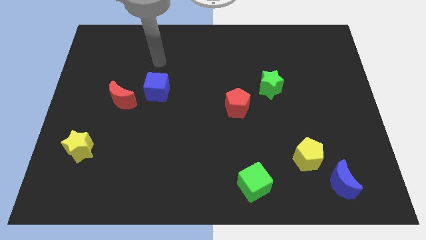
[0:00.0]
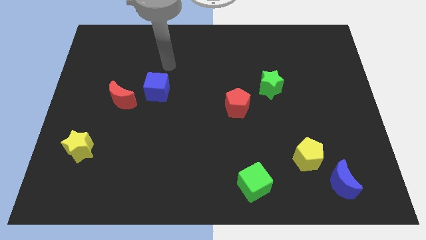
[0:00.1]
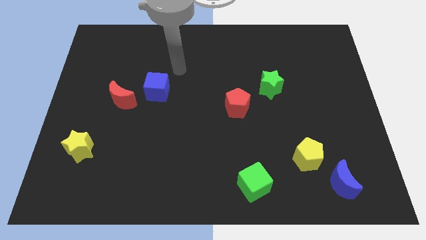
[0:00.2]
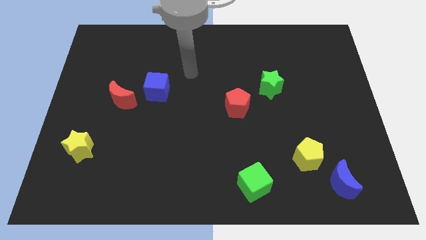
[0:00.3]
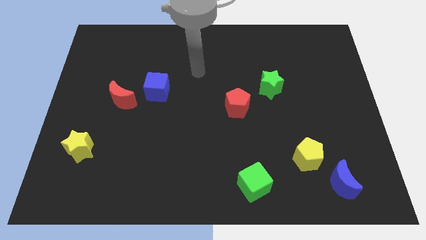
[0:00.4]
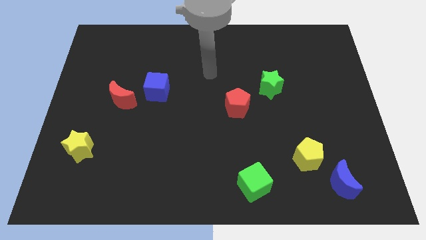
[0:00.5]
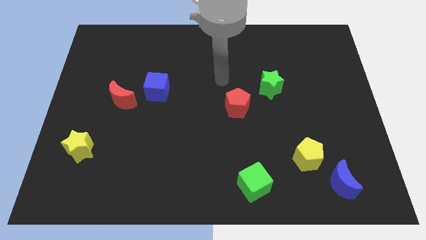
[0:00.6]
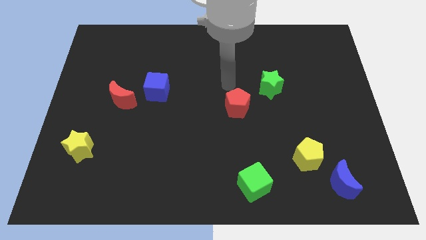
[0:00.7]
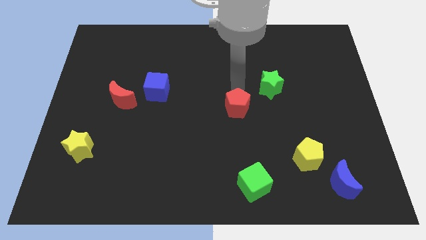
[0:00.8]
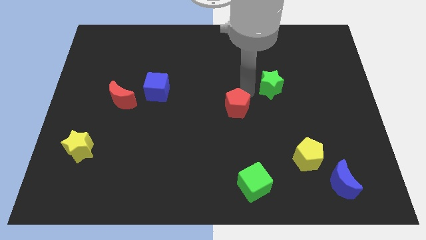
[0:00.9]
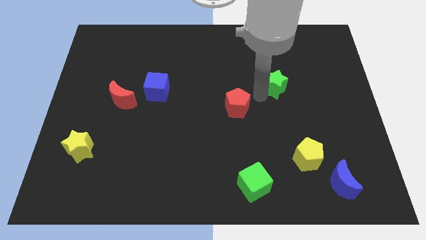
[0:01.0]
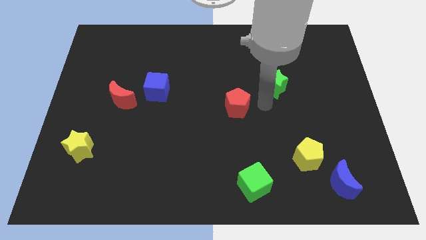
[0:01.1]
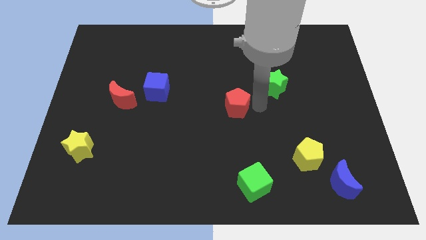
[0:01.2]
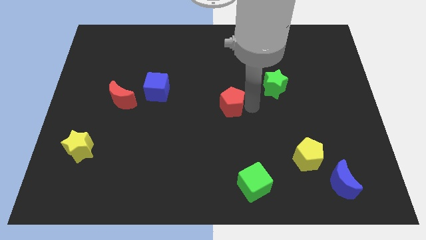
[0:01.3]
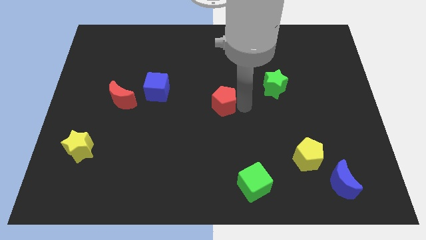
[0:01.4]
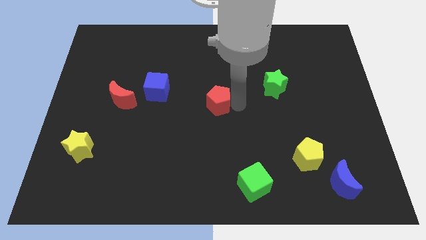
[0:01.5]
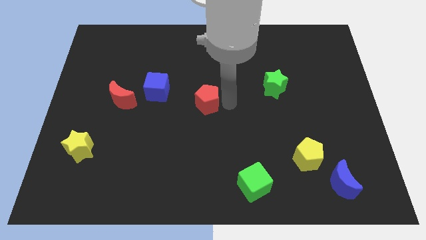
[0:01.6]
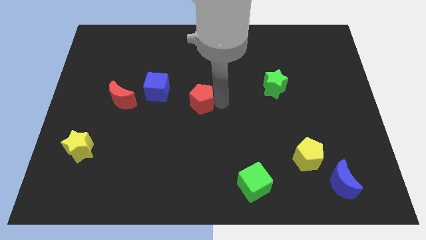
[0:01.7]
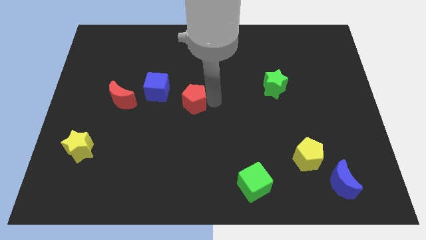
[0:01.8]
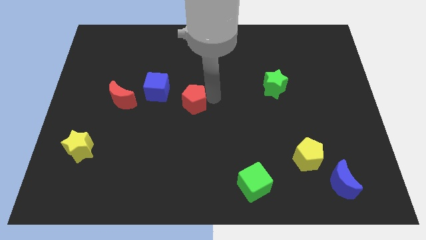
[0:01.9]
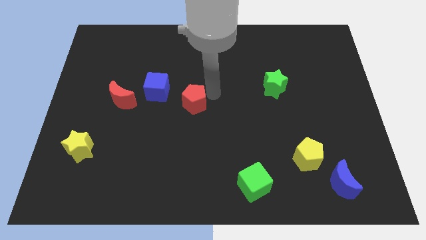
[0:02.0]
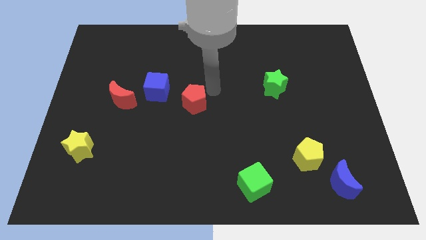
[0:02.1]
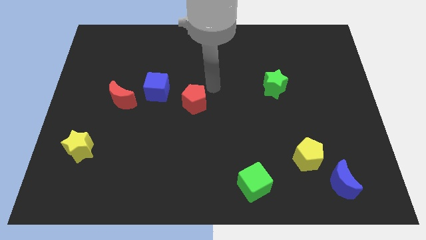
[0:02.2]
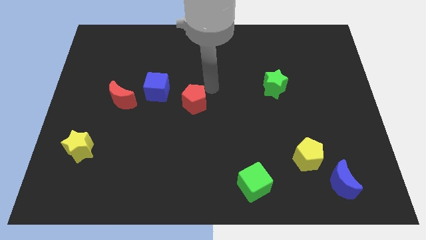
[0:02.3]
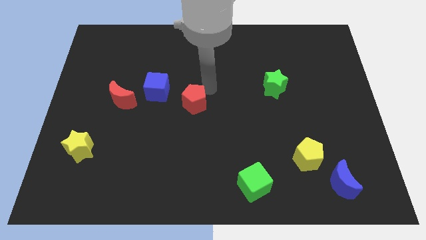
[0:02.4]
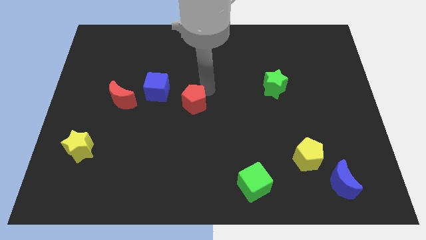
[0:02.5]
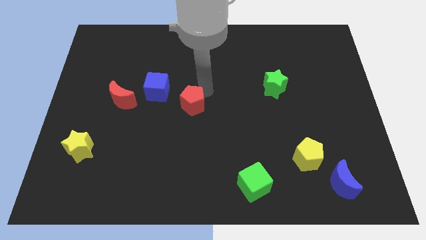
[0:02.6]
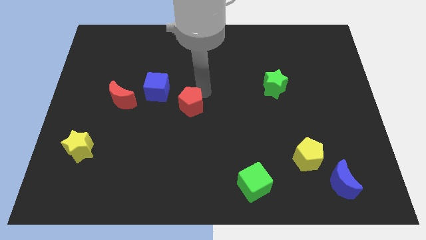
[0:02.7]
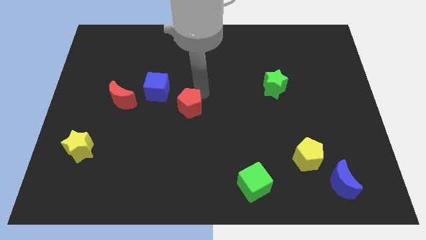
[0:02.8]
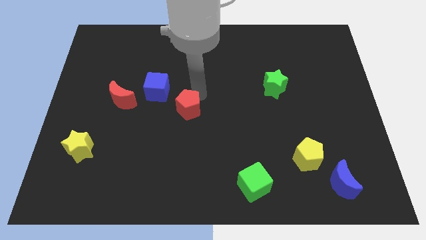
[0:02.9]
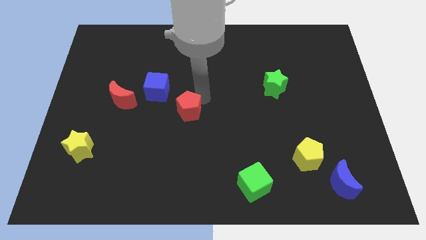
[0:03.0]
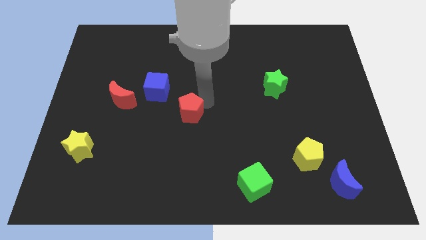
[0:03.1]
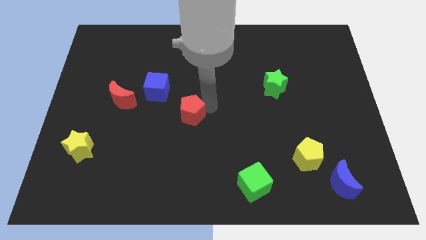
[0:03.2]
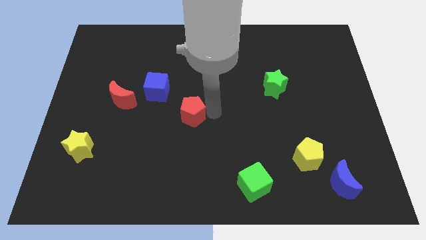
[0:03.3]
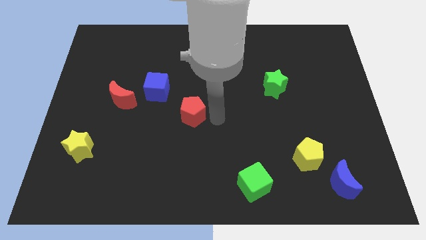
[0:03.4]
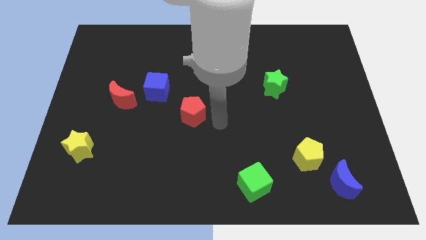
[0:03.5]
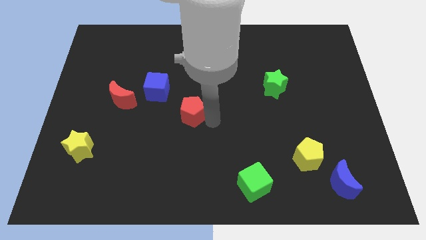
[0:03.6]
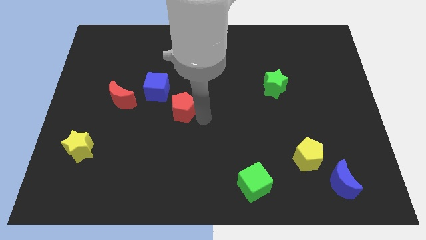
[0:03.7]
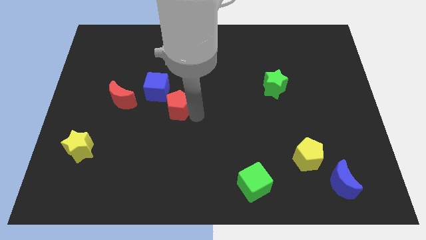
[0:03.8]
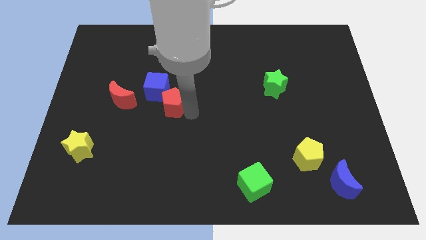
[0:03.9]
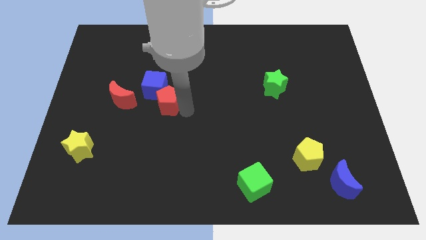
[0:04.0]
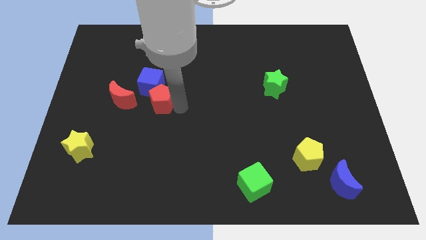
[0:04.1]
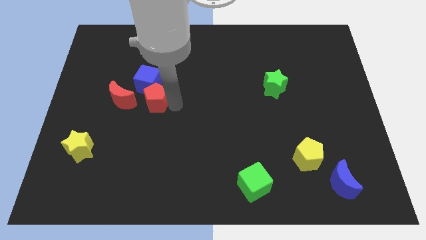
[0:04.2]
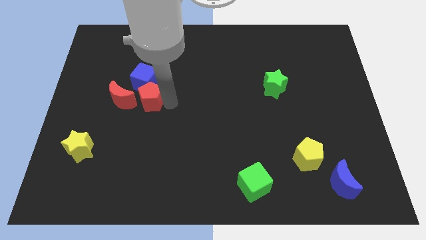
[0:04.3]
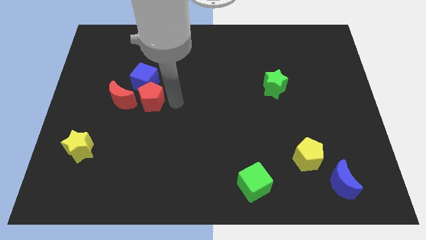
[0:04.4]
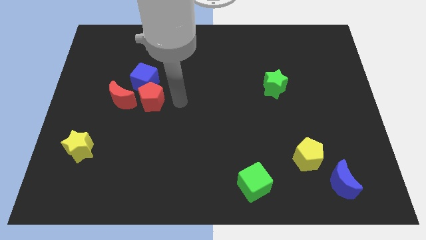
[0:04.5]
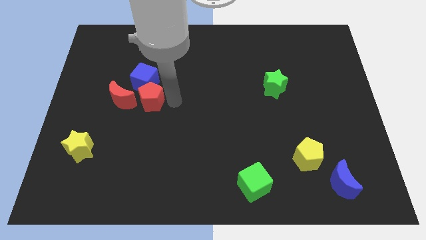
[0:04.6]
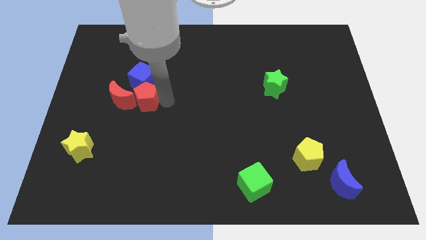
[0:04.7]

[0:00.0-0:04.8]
push the red pentagon towards the red moon

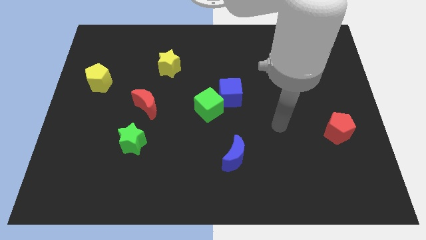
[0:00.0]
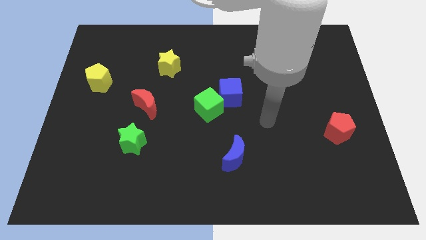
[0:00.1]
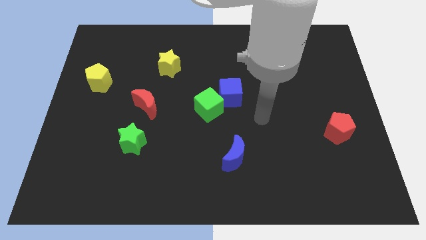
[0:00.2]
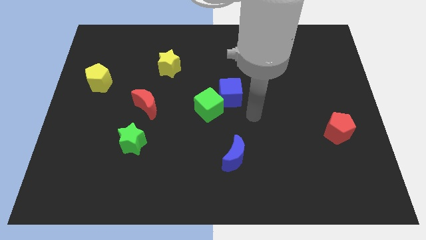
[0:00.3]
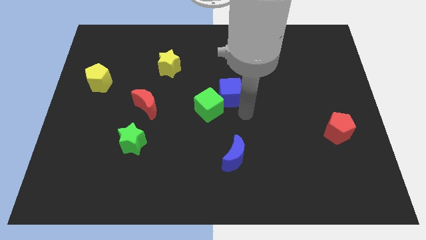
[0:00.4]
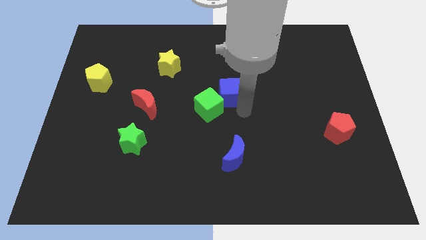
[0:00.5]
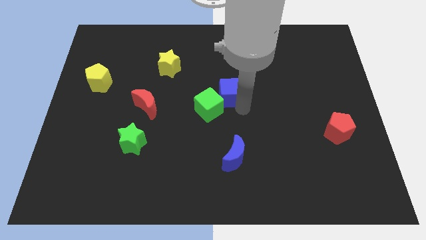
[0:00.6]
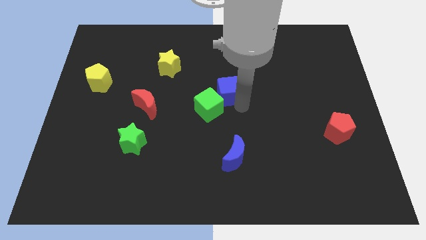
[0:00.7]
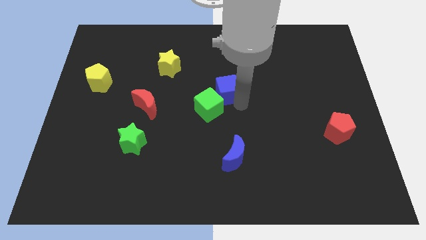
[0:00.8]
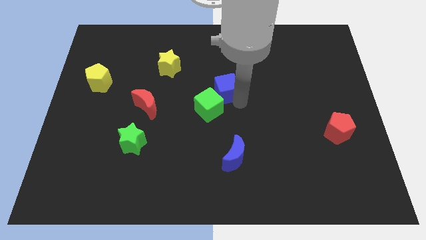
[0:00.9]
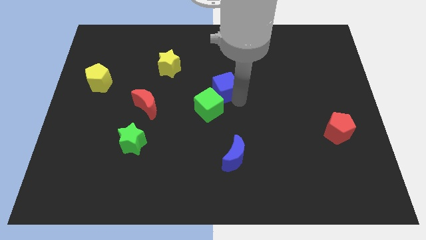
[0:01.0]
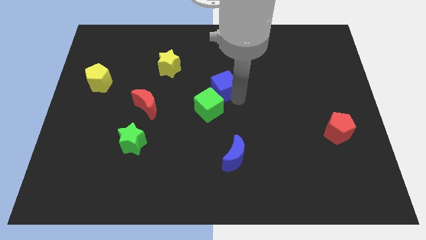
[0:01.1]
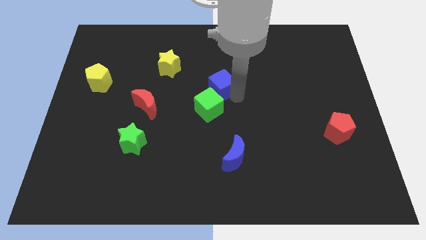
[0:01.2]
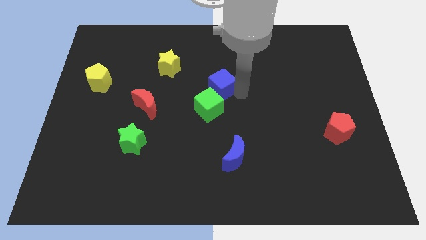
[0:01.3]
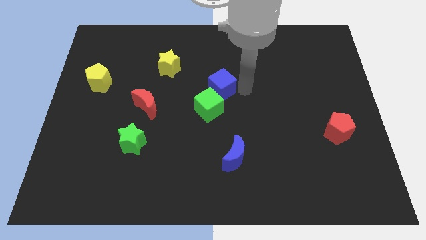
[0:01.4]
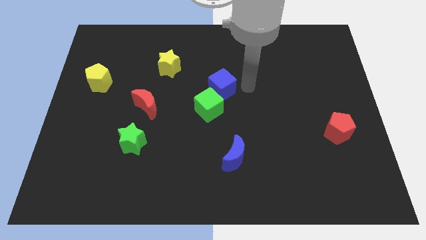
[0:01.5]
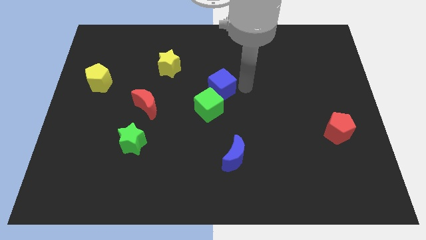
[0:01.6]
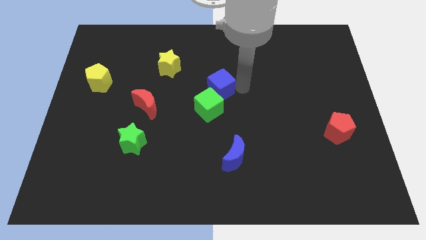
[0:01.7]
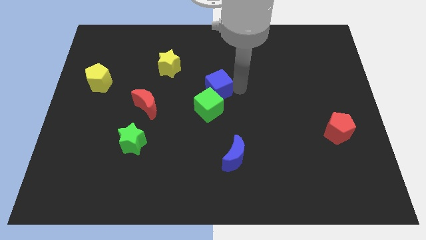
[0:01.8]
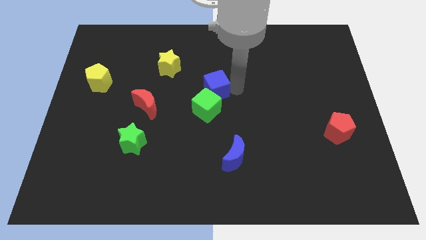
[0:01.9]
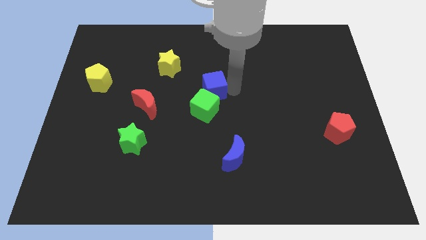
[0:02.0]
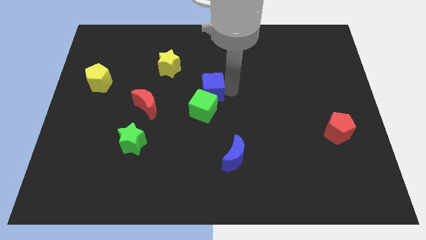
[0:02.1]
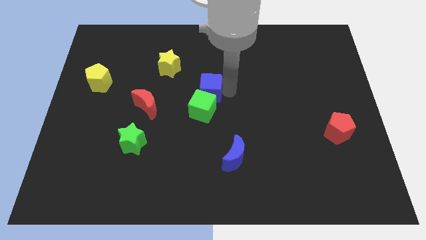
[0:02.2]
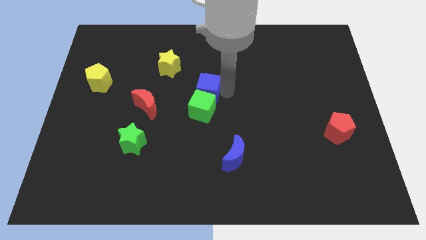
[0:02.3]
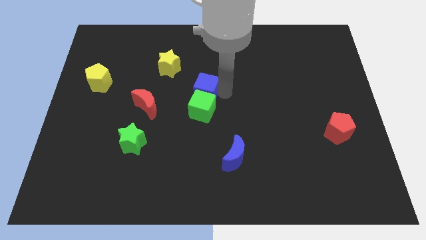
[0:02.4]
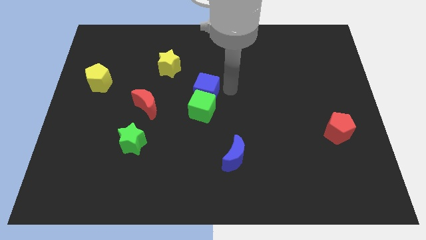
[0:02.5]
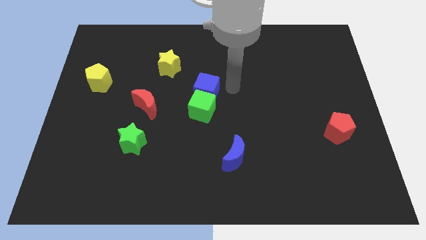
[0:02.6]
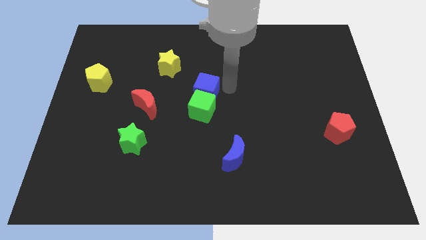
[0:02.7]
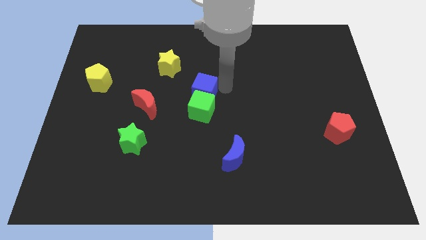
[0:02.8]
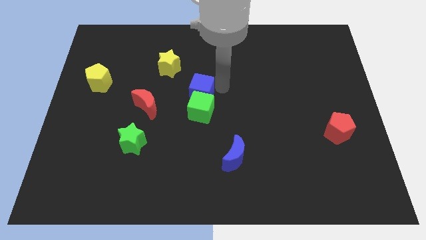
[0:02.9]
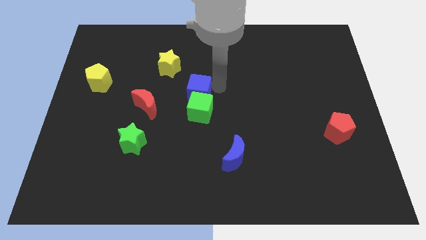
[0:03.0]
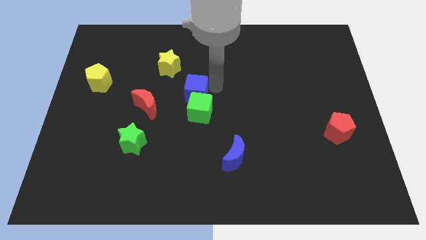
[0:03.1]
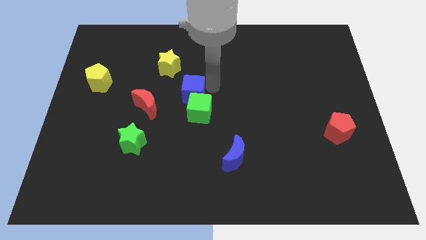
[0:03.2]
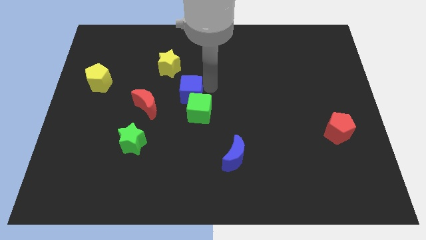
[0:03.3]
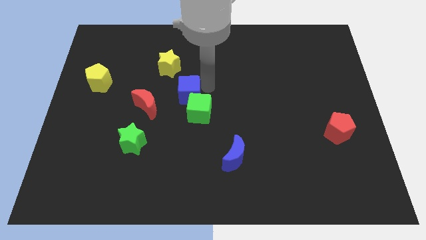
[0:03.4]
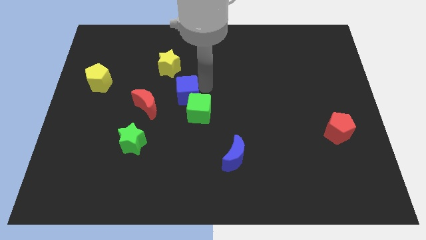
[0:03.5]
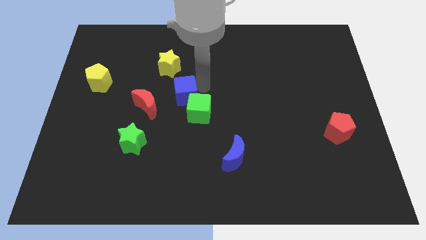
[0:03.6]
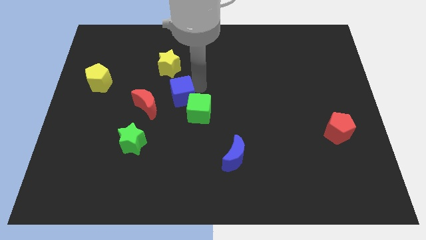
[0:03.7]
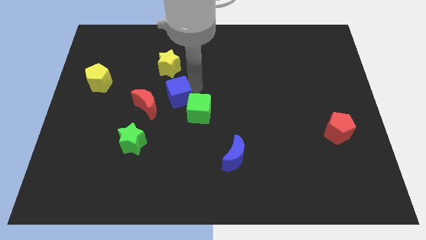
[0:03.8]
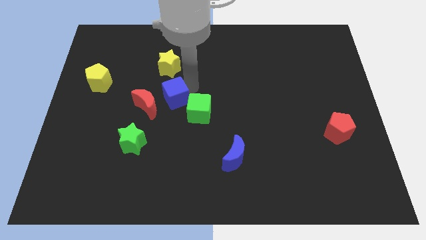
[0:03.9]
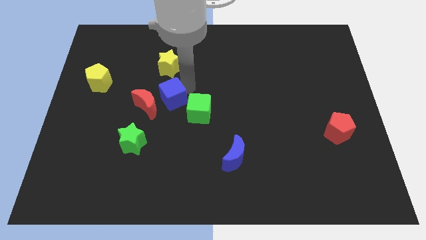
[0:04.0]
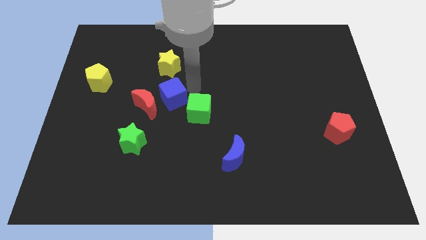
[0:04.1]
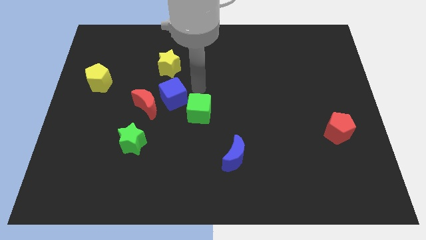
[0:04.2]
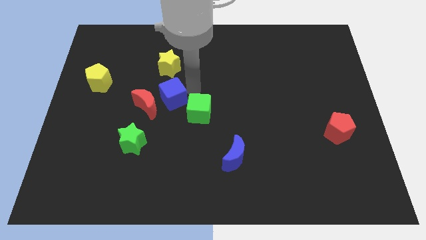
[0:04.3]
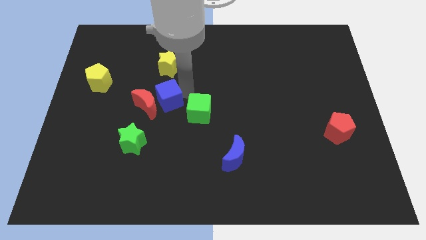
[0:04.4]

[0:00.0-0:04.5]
push the blue cube next to the red moon
